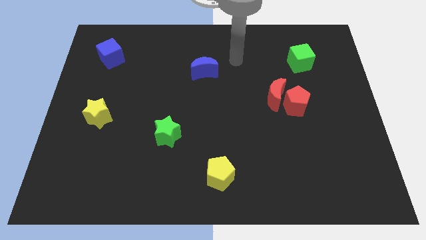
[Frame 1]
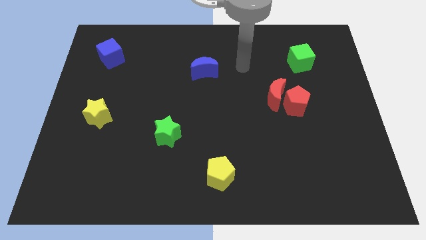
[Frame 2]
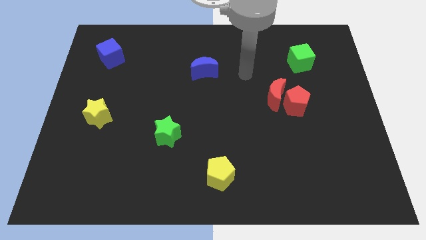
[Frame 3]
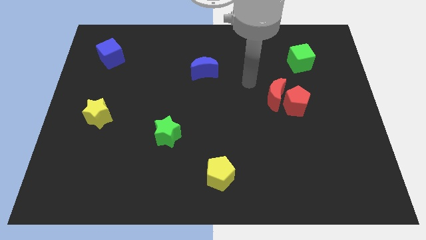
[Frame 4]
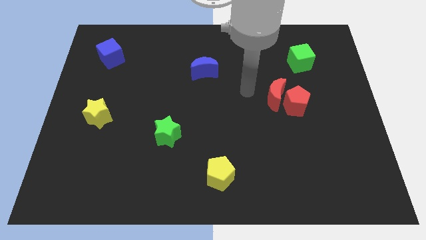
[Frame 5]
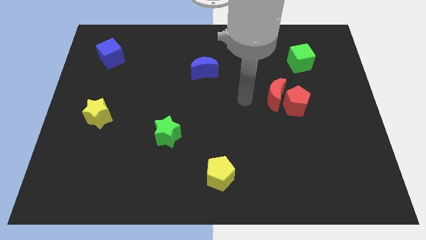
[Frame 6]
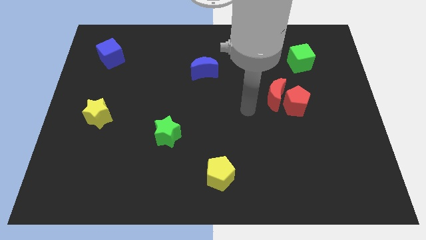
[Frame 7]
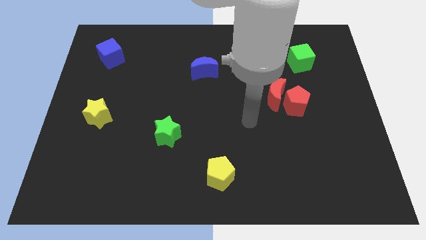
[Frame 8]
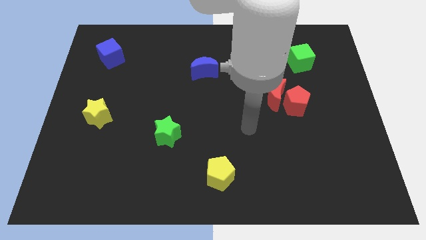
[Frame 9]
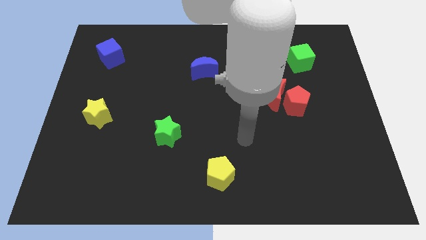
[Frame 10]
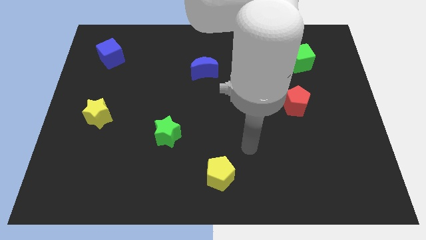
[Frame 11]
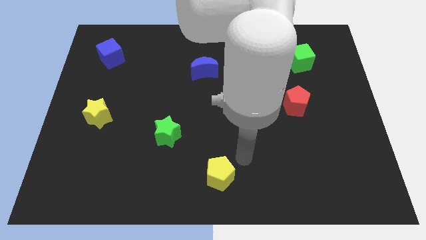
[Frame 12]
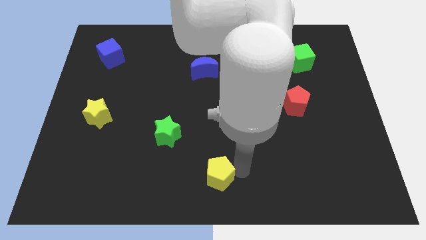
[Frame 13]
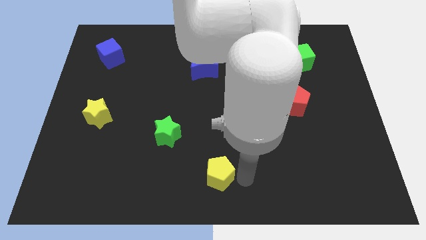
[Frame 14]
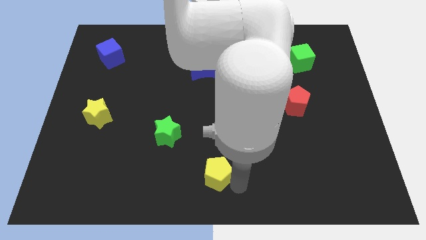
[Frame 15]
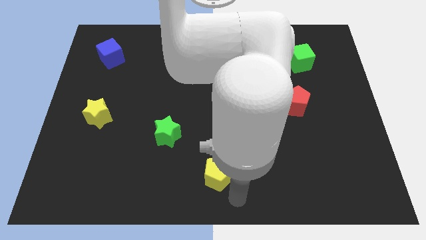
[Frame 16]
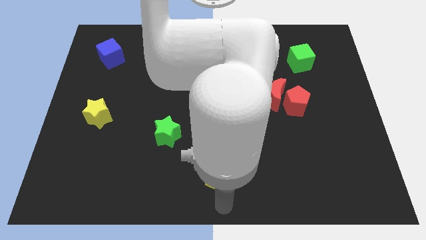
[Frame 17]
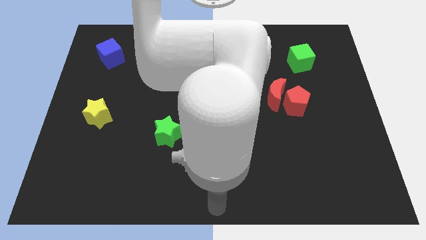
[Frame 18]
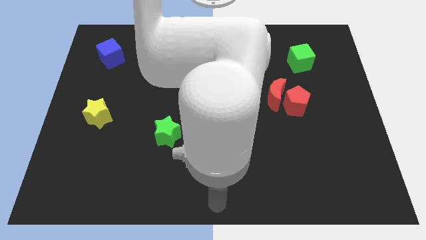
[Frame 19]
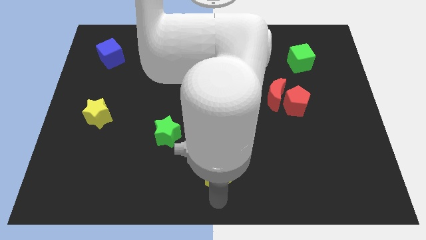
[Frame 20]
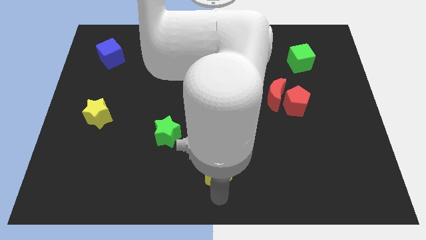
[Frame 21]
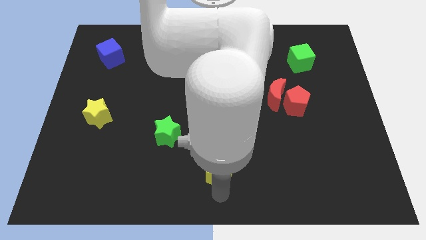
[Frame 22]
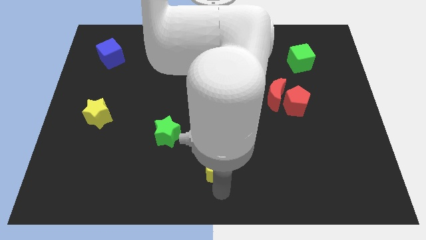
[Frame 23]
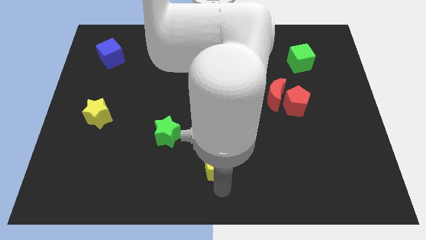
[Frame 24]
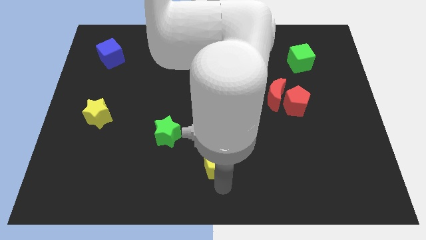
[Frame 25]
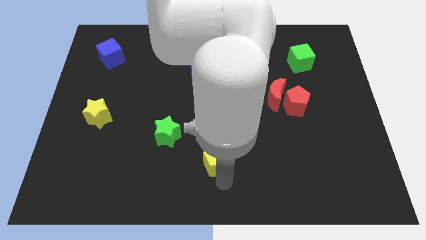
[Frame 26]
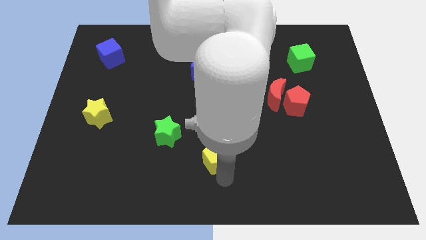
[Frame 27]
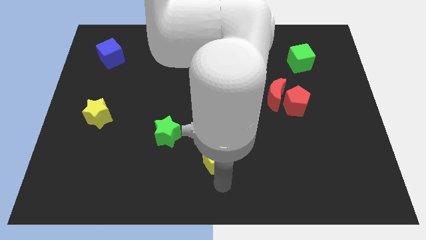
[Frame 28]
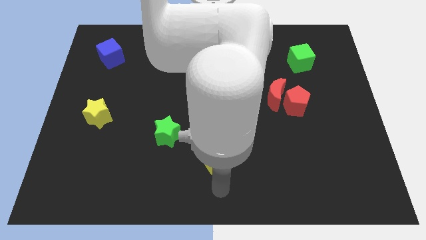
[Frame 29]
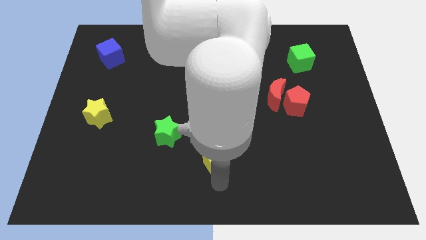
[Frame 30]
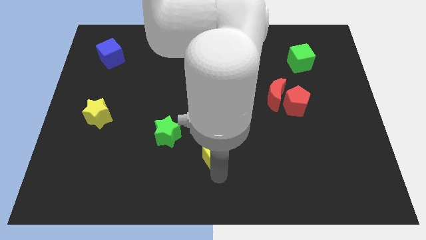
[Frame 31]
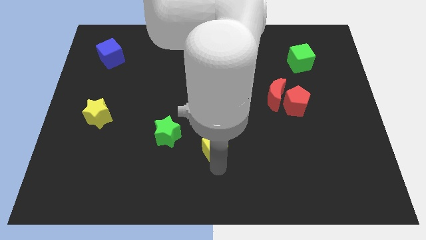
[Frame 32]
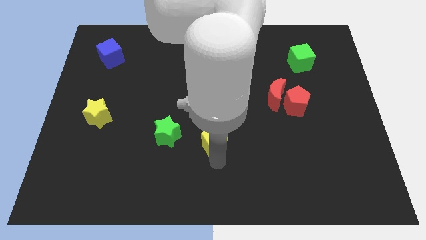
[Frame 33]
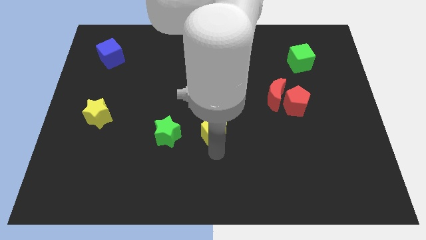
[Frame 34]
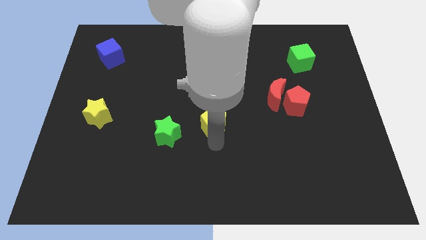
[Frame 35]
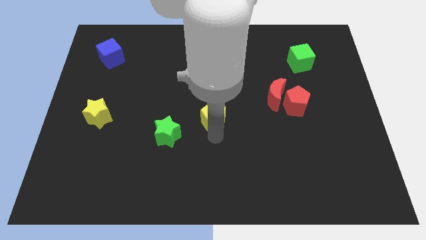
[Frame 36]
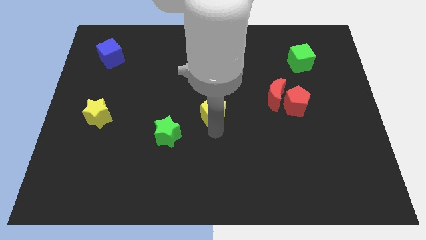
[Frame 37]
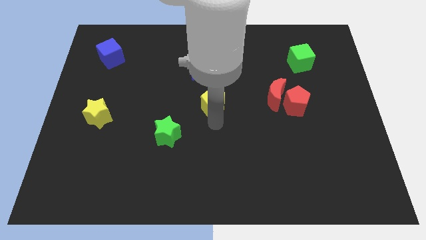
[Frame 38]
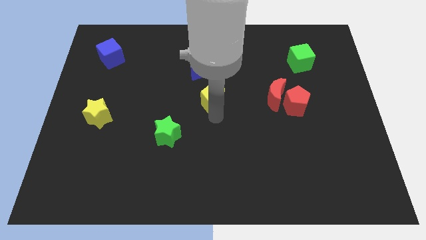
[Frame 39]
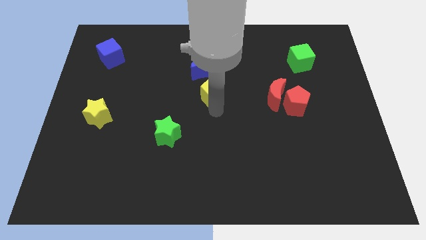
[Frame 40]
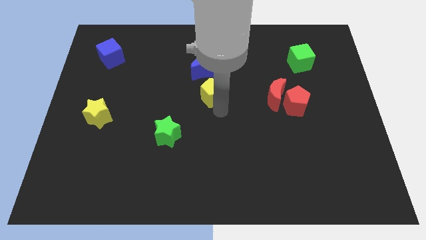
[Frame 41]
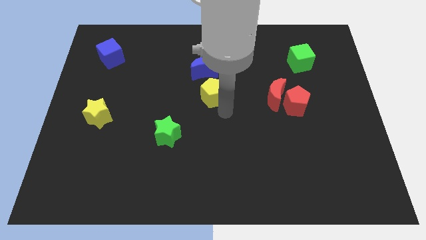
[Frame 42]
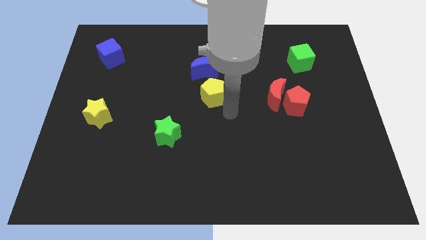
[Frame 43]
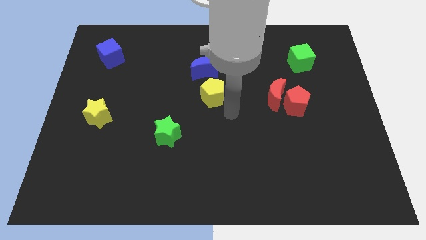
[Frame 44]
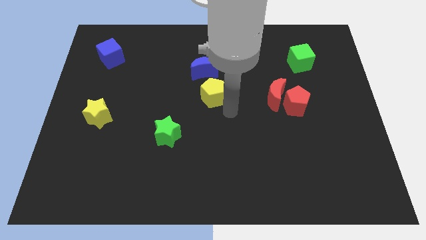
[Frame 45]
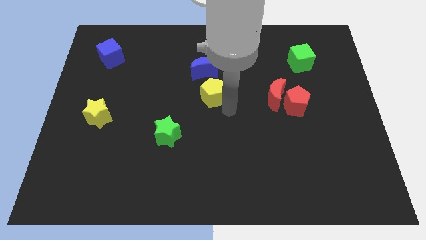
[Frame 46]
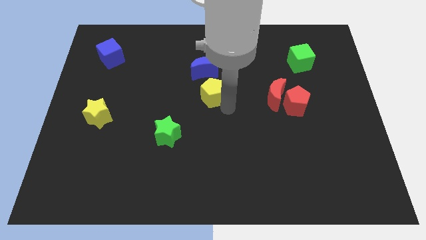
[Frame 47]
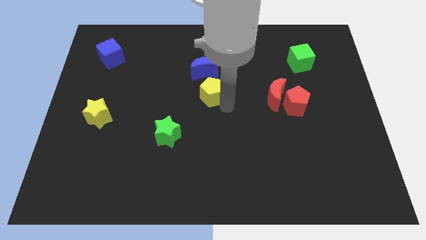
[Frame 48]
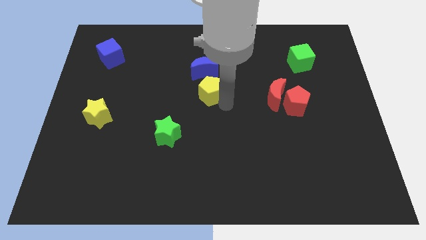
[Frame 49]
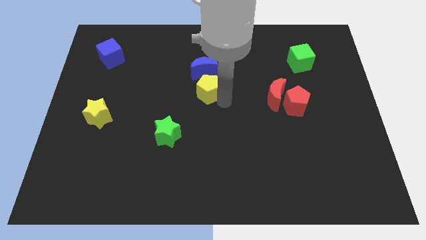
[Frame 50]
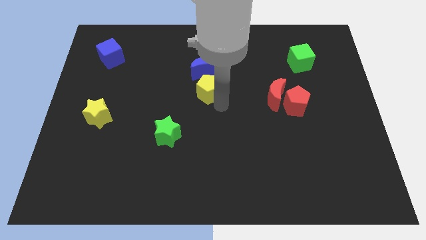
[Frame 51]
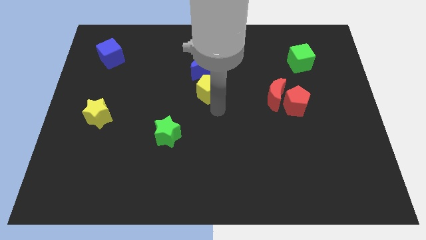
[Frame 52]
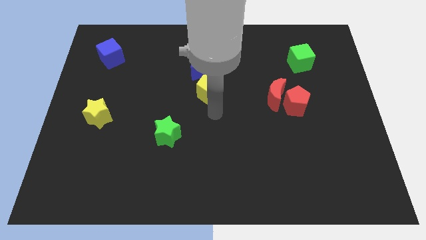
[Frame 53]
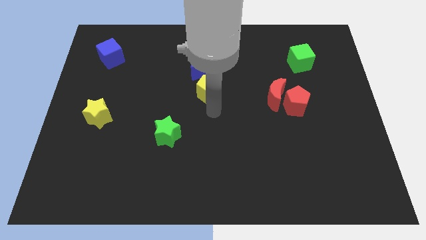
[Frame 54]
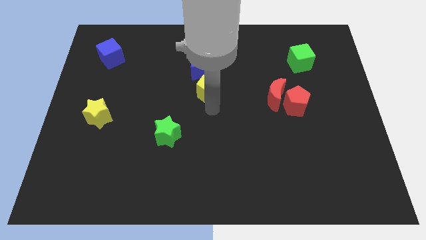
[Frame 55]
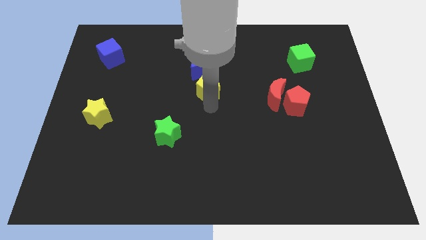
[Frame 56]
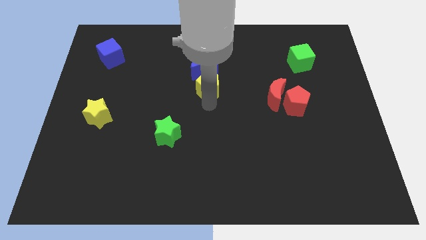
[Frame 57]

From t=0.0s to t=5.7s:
move the yellow pentagon towards the blue moon

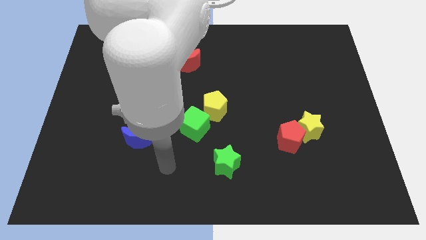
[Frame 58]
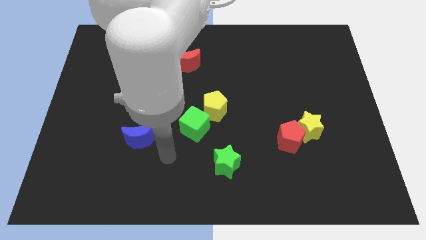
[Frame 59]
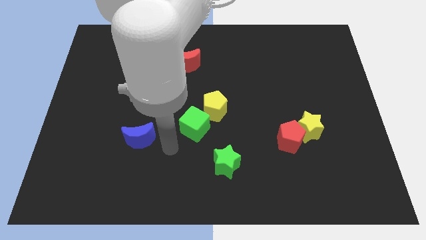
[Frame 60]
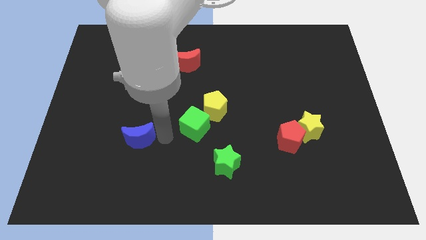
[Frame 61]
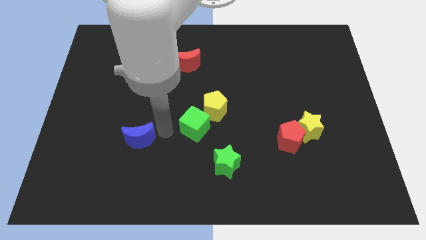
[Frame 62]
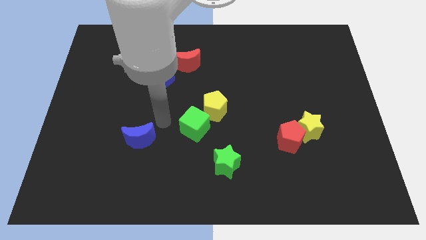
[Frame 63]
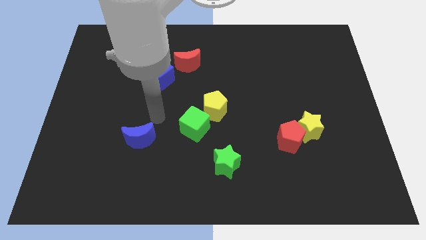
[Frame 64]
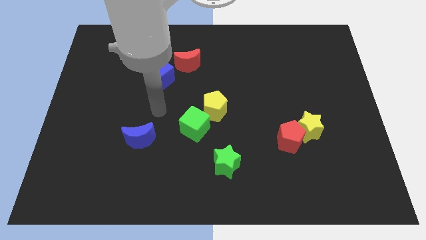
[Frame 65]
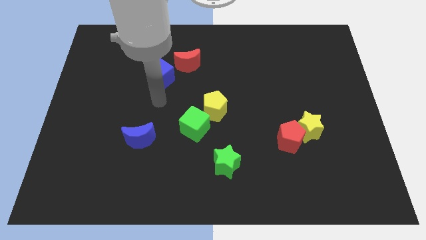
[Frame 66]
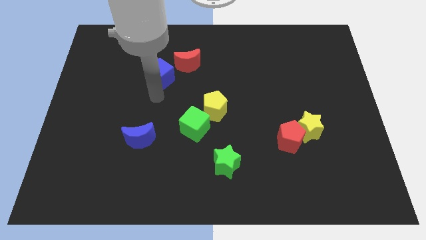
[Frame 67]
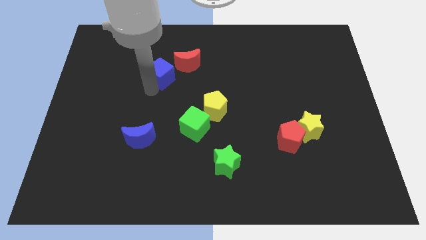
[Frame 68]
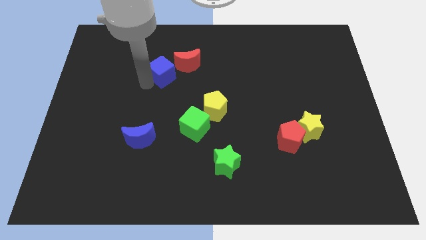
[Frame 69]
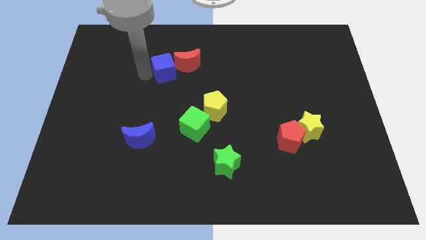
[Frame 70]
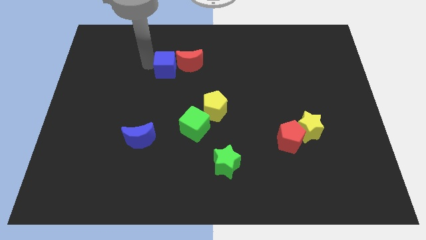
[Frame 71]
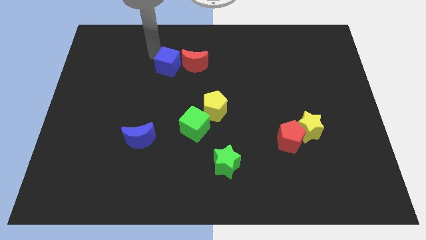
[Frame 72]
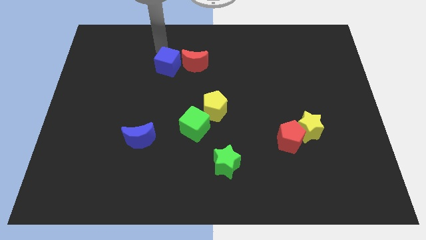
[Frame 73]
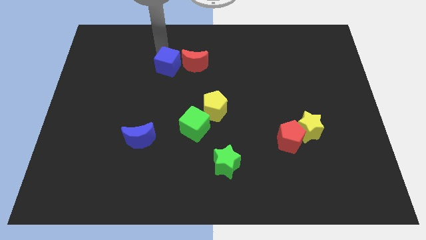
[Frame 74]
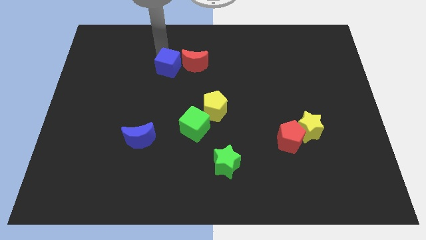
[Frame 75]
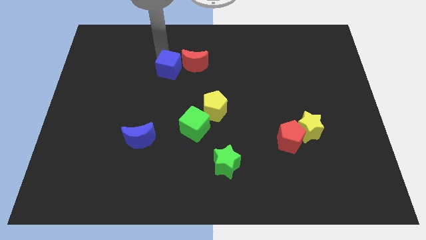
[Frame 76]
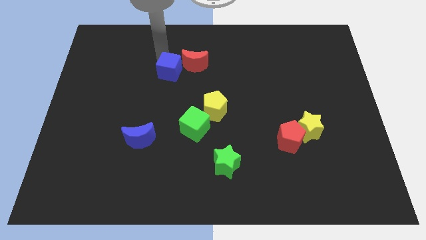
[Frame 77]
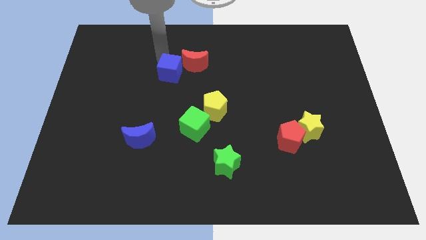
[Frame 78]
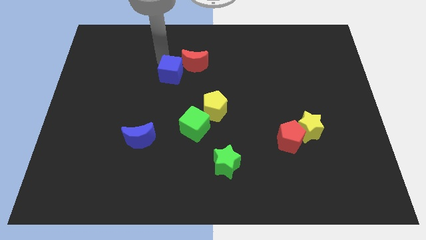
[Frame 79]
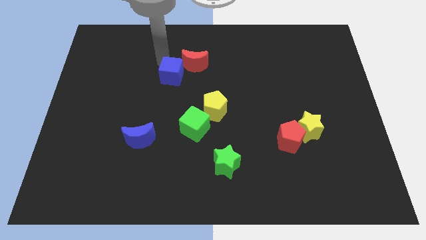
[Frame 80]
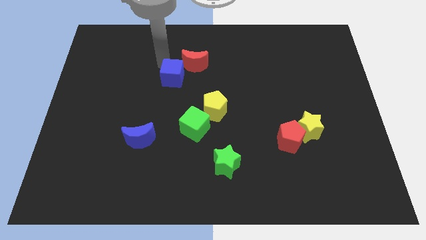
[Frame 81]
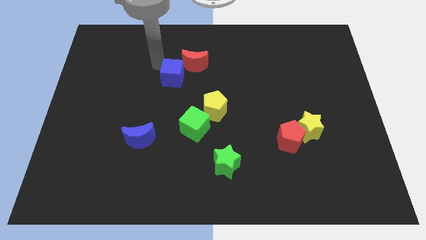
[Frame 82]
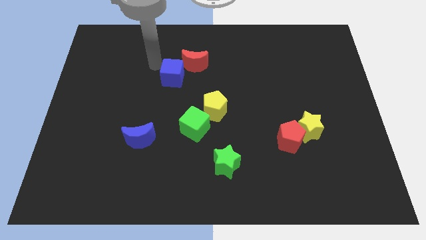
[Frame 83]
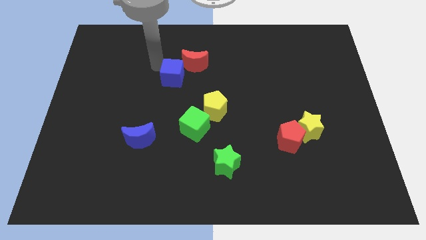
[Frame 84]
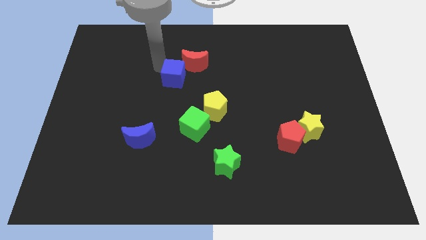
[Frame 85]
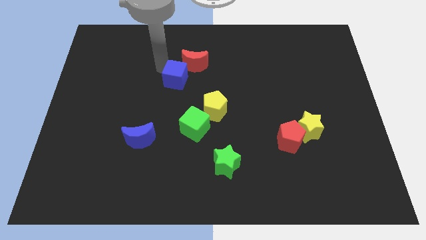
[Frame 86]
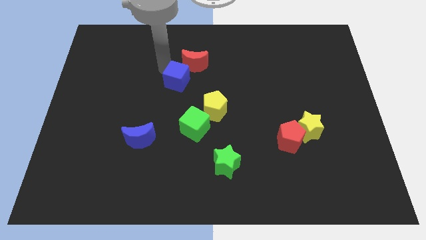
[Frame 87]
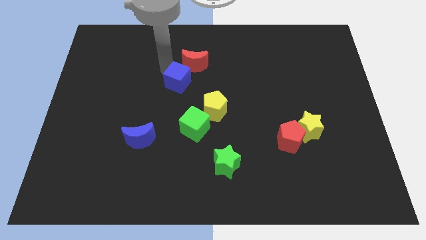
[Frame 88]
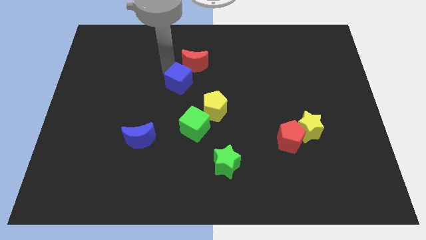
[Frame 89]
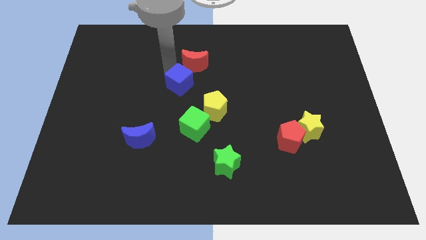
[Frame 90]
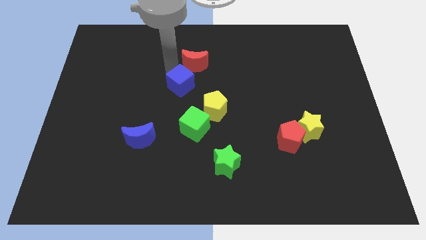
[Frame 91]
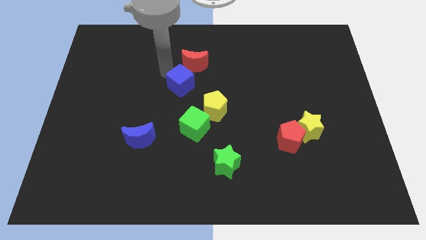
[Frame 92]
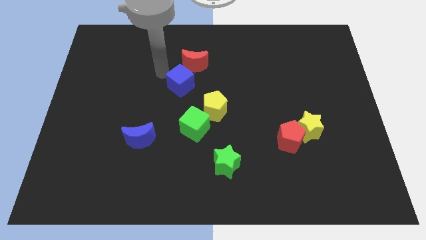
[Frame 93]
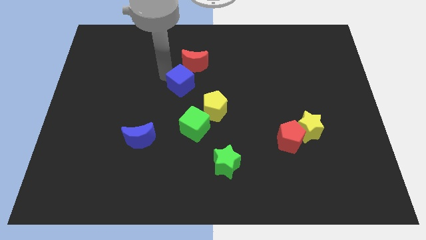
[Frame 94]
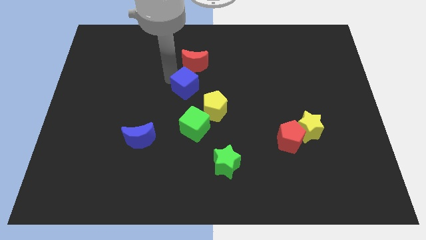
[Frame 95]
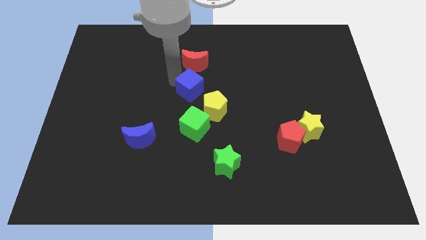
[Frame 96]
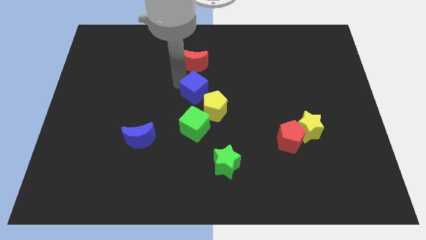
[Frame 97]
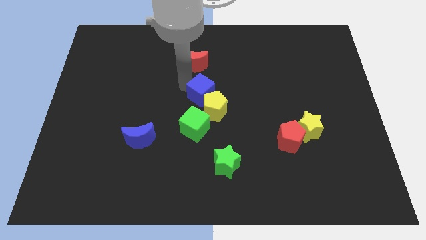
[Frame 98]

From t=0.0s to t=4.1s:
slide the blue cube next to the yellow pentagon
